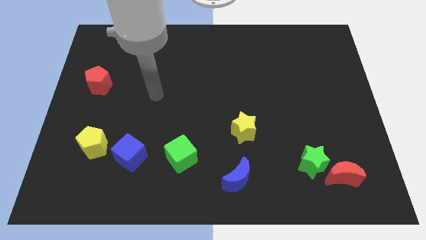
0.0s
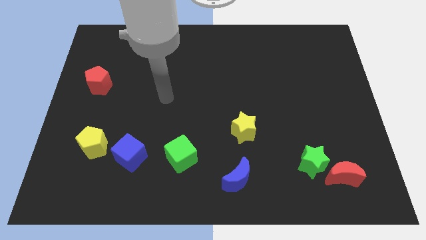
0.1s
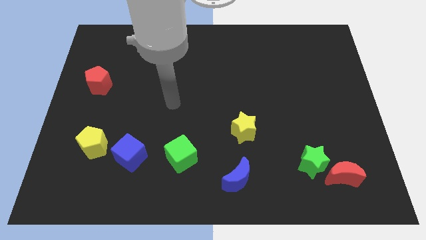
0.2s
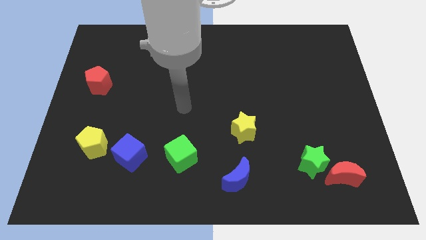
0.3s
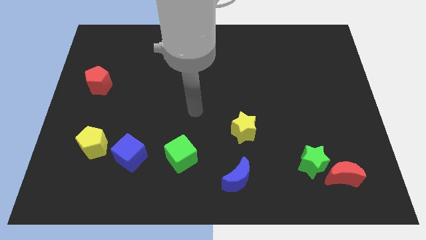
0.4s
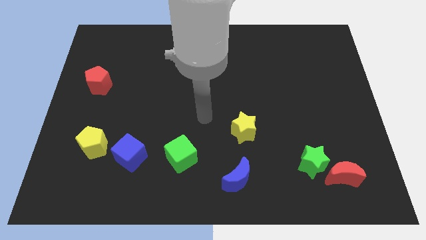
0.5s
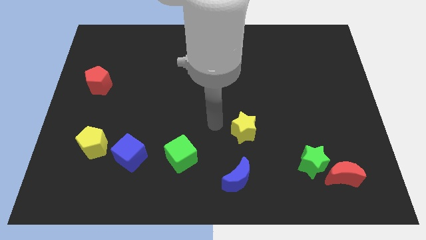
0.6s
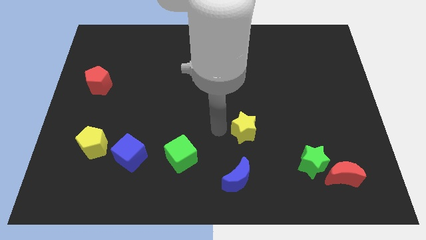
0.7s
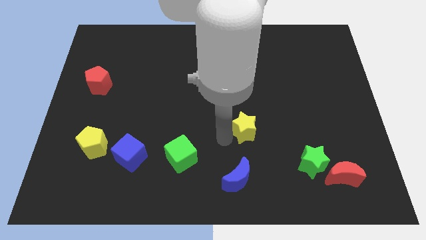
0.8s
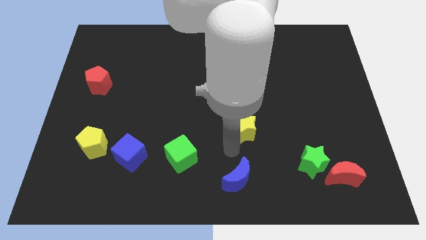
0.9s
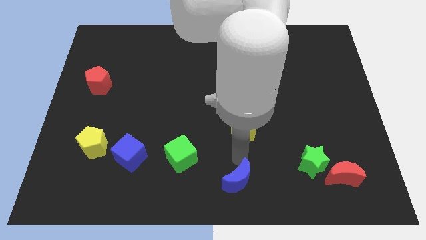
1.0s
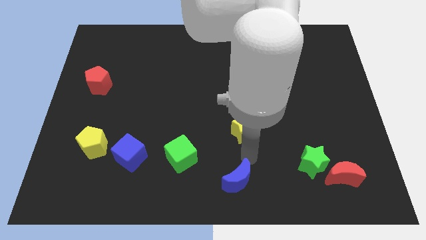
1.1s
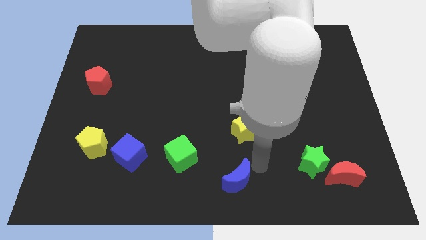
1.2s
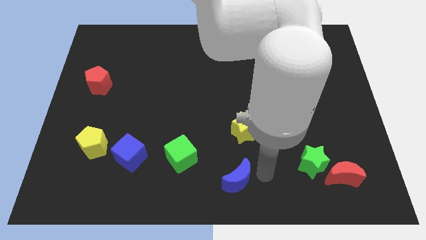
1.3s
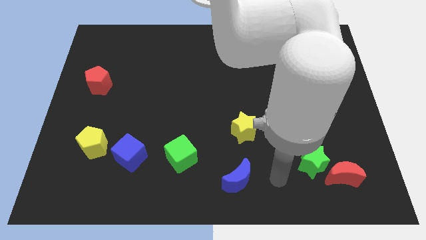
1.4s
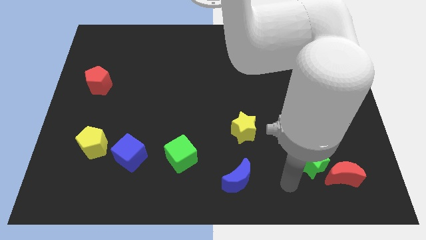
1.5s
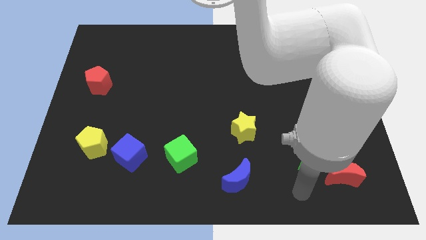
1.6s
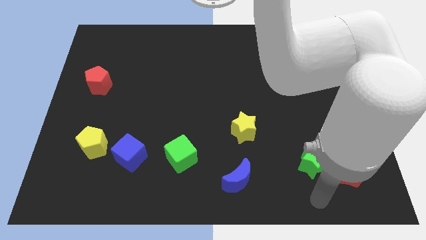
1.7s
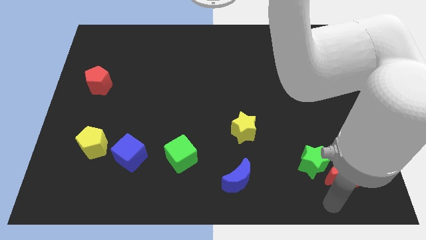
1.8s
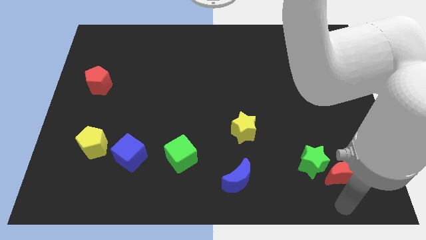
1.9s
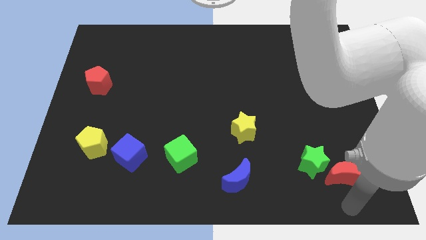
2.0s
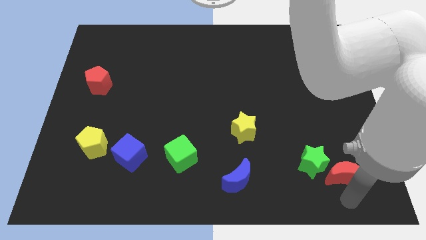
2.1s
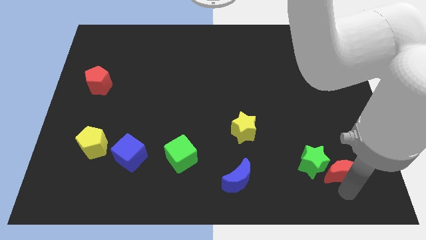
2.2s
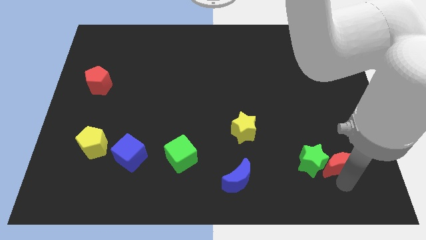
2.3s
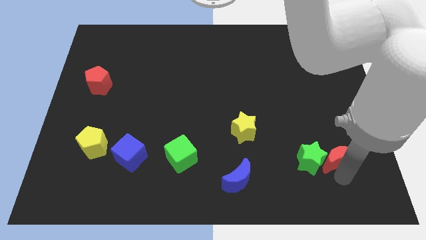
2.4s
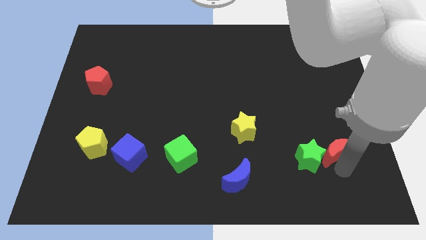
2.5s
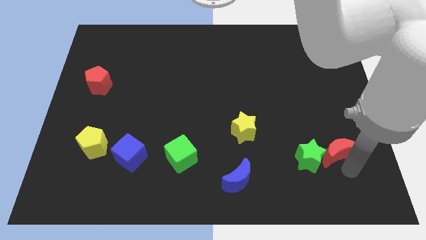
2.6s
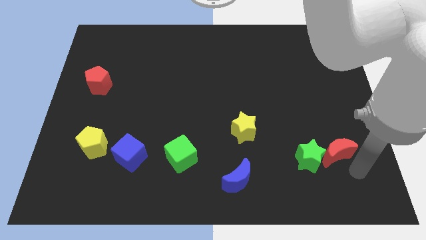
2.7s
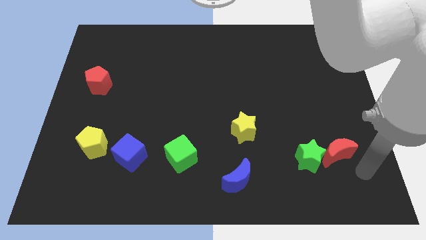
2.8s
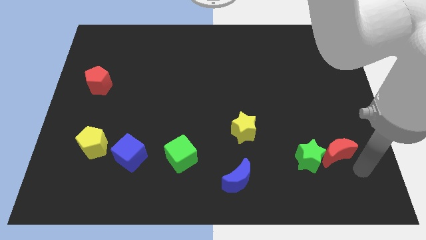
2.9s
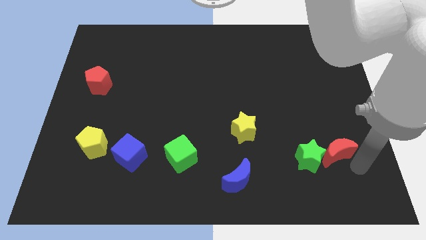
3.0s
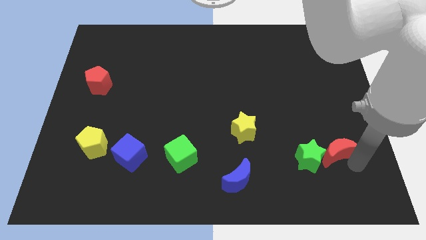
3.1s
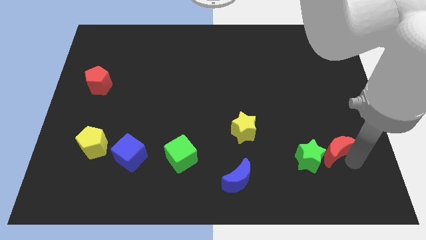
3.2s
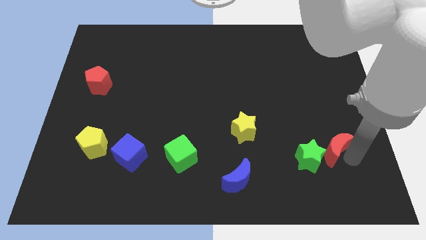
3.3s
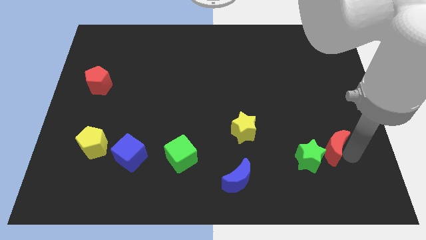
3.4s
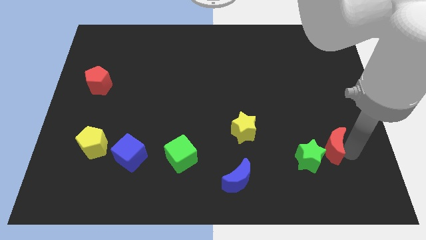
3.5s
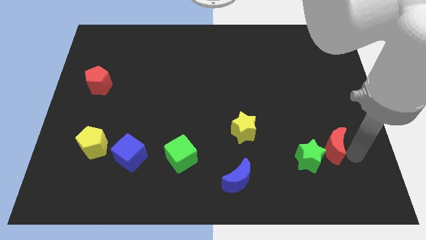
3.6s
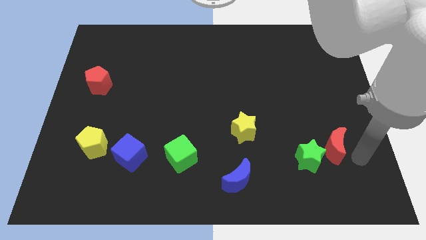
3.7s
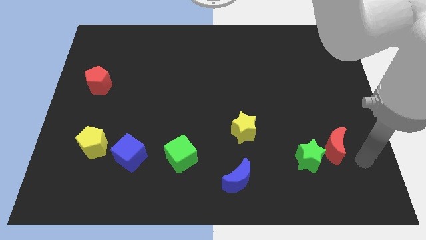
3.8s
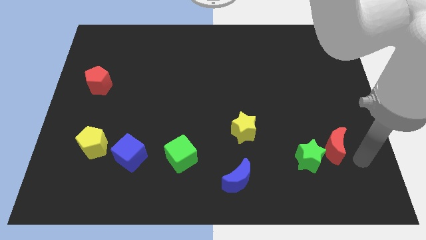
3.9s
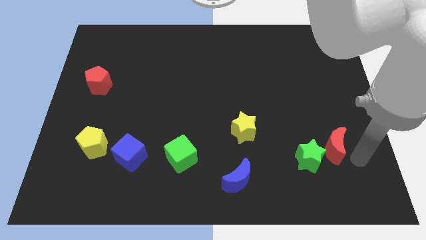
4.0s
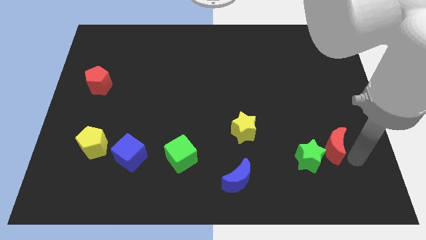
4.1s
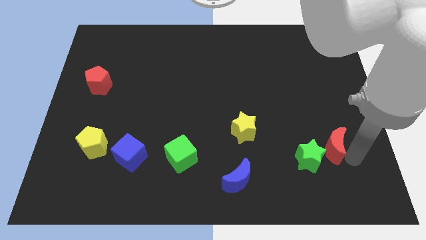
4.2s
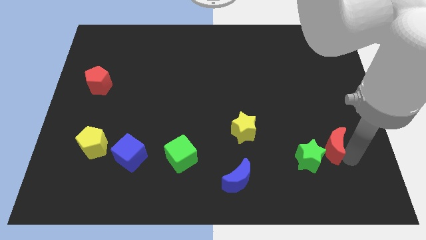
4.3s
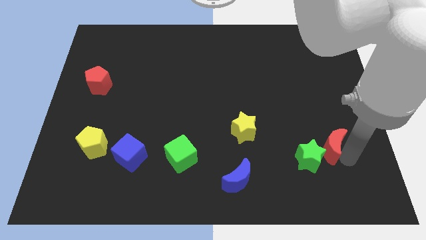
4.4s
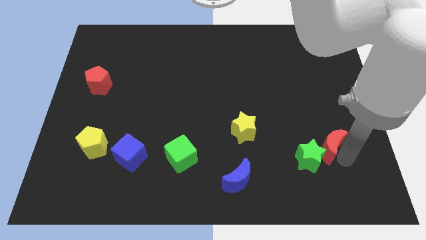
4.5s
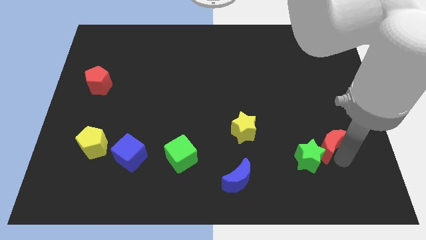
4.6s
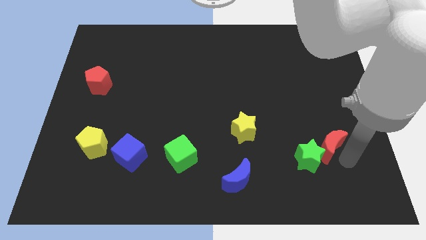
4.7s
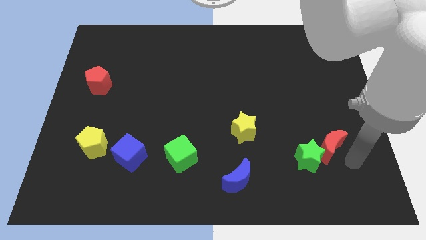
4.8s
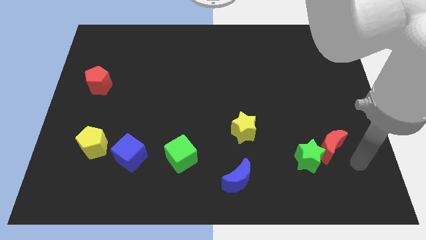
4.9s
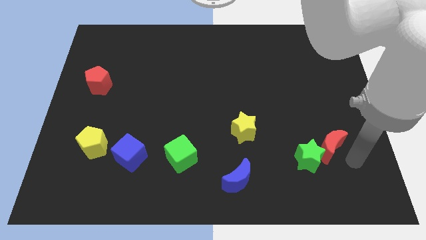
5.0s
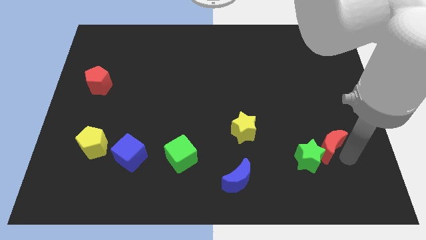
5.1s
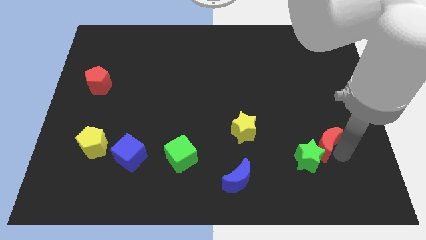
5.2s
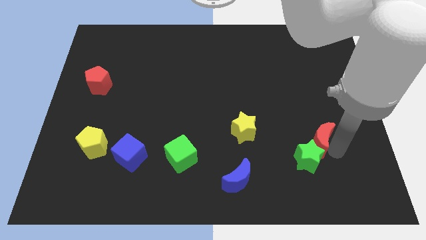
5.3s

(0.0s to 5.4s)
move the red moon slightly diagonally upwards and to the left

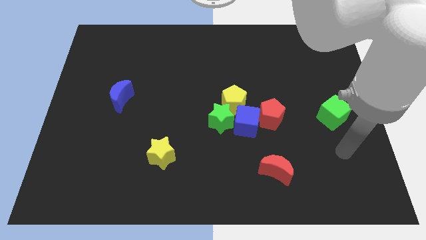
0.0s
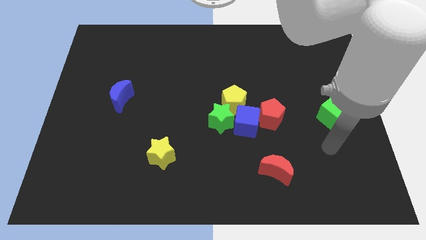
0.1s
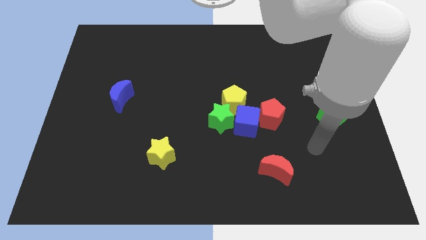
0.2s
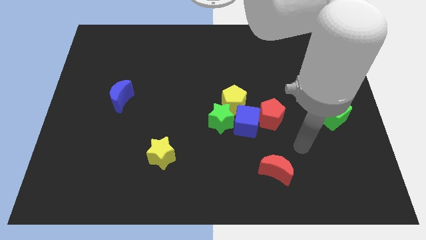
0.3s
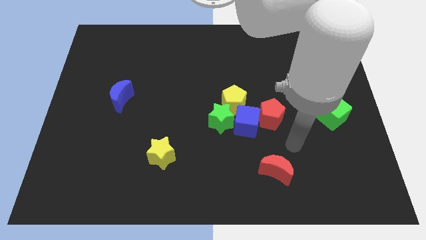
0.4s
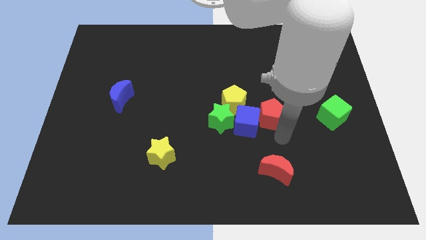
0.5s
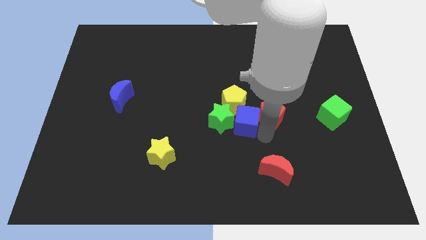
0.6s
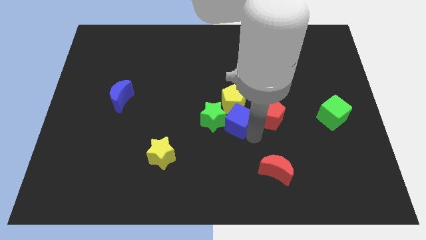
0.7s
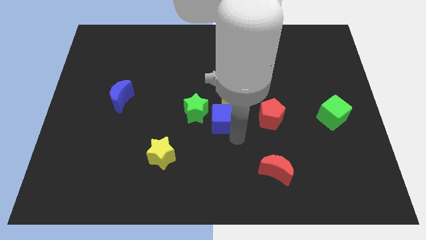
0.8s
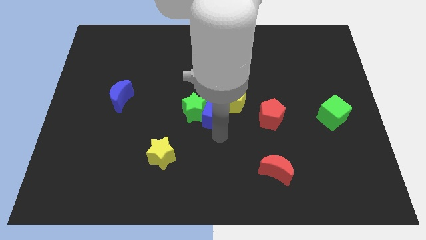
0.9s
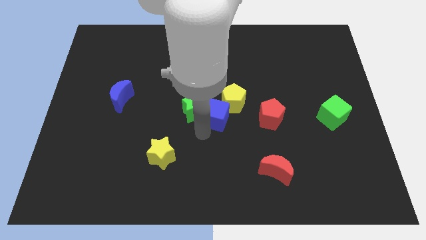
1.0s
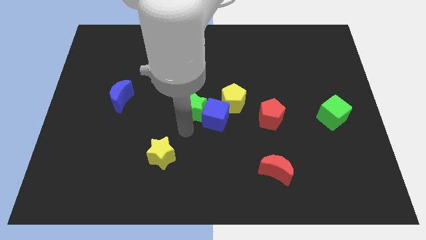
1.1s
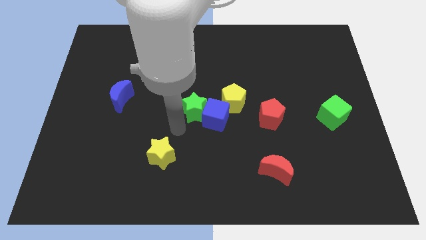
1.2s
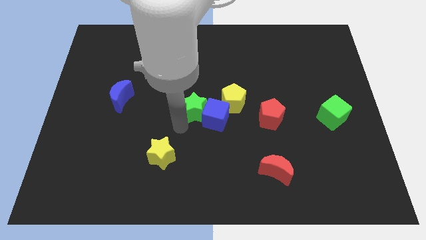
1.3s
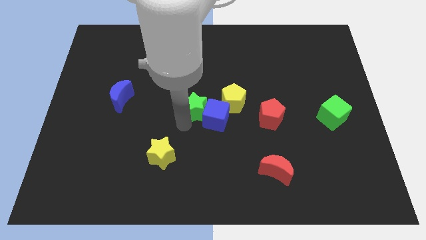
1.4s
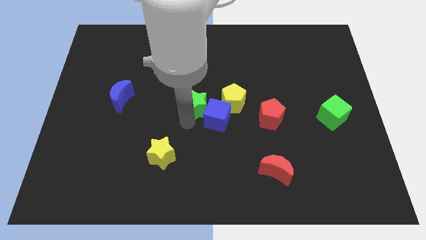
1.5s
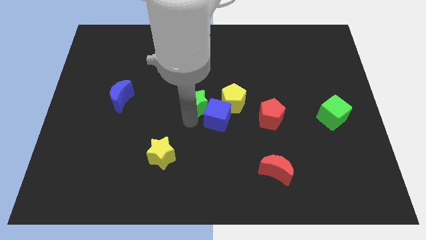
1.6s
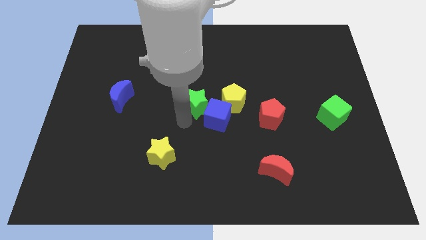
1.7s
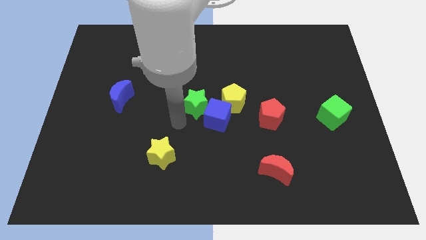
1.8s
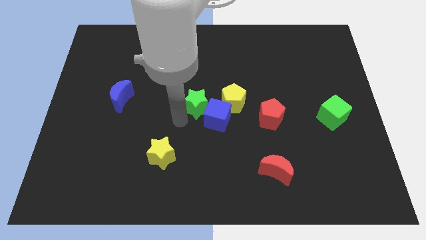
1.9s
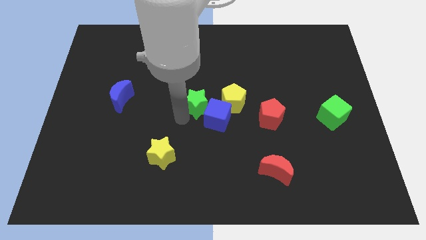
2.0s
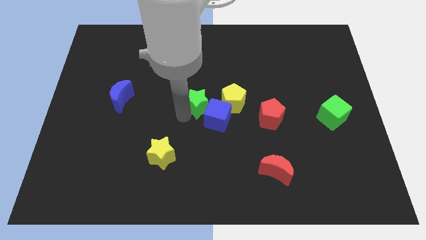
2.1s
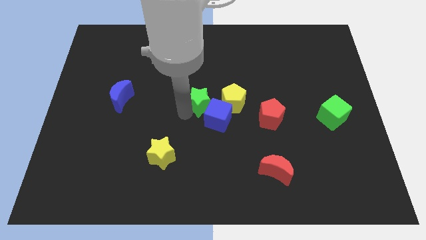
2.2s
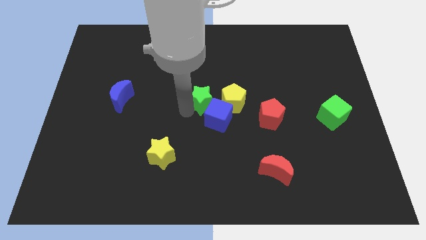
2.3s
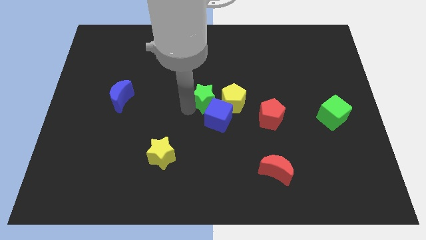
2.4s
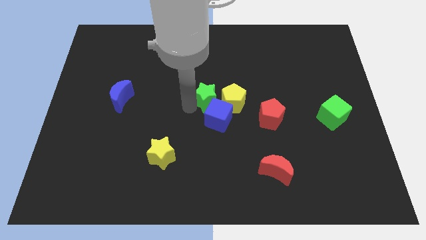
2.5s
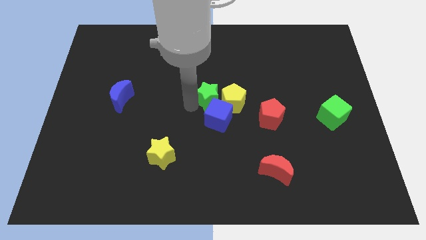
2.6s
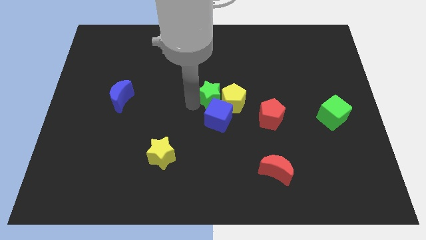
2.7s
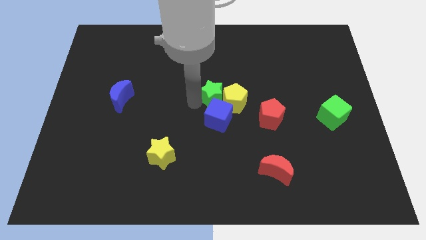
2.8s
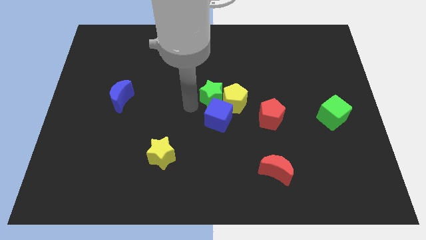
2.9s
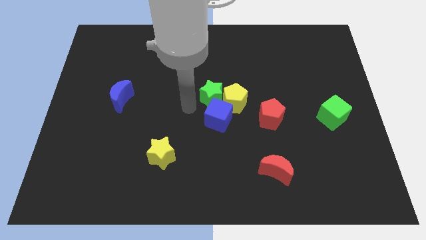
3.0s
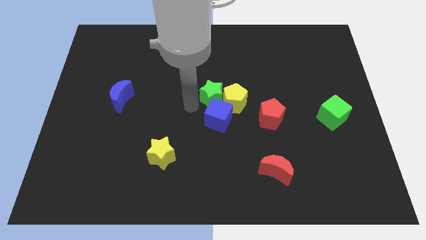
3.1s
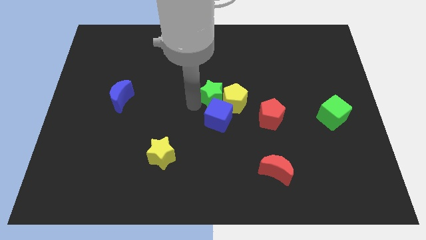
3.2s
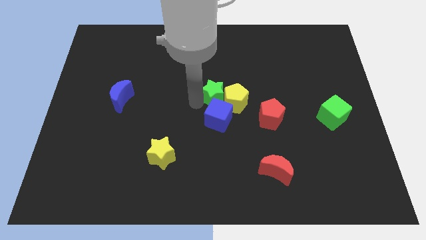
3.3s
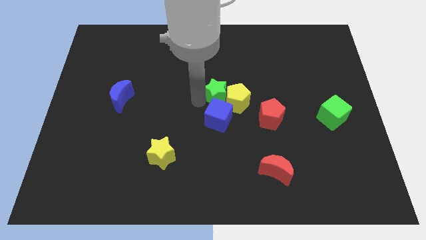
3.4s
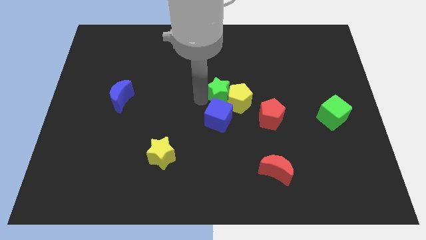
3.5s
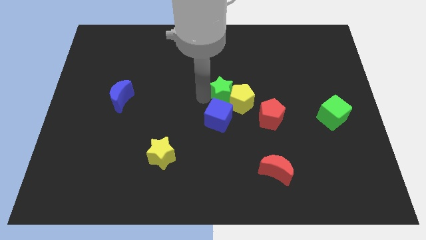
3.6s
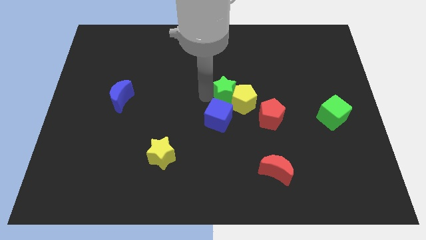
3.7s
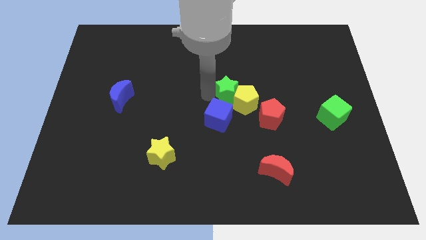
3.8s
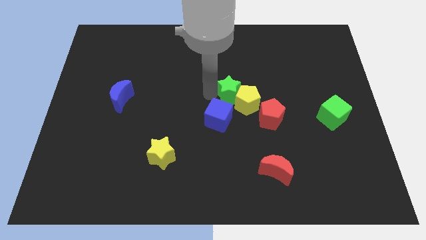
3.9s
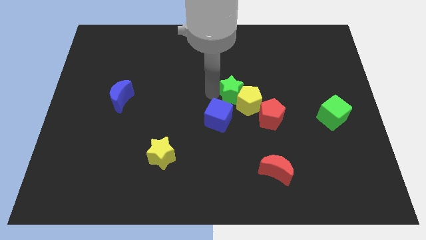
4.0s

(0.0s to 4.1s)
move the green star up and right a little
